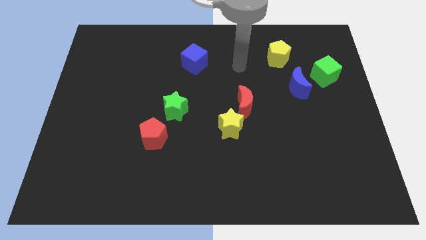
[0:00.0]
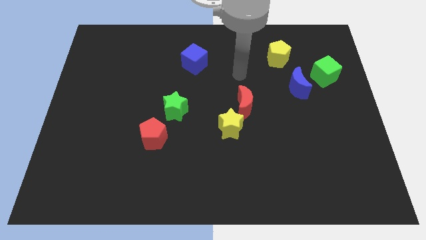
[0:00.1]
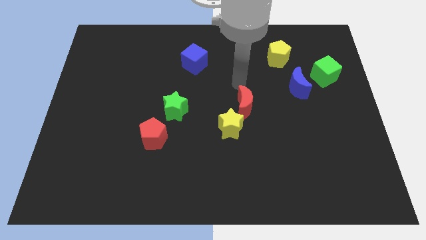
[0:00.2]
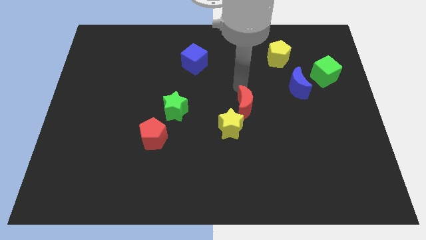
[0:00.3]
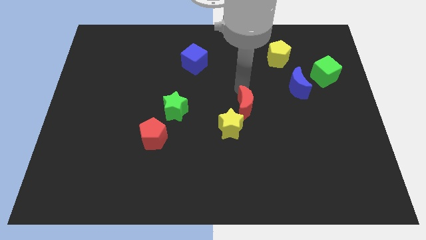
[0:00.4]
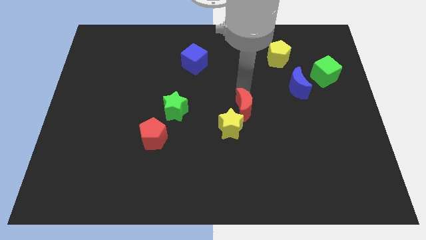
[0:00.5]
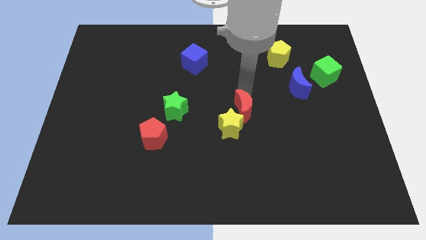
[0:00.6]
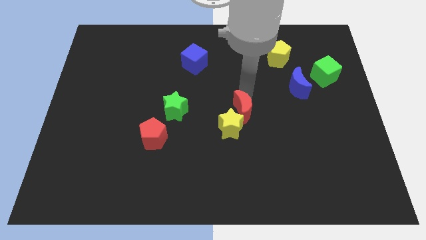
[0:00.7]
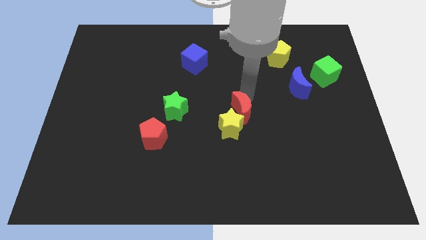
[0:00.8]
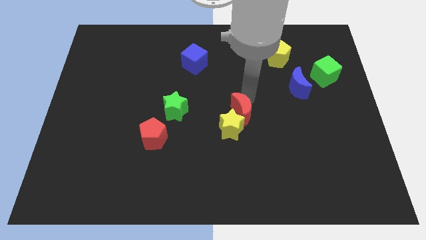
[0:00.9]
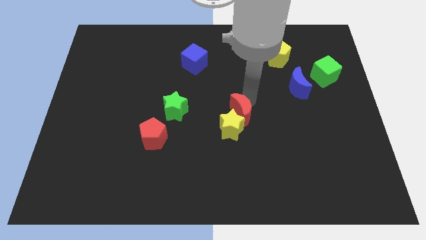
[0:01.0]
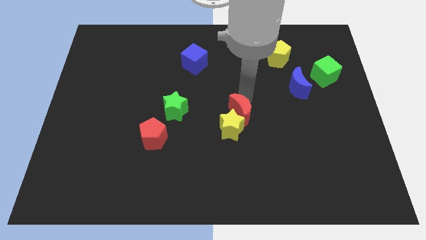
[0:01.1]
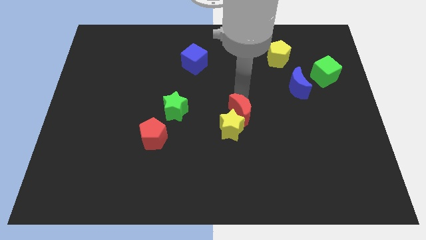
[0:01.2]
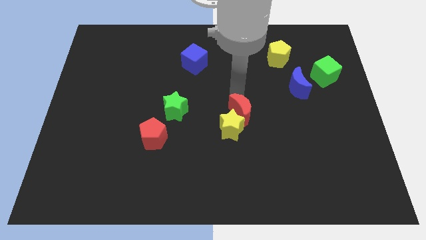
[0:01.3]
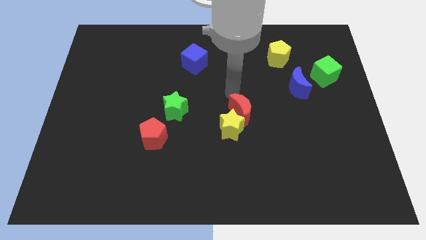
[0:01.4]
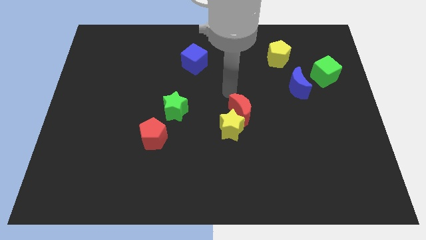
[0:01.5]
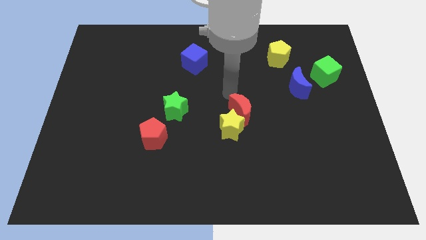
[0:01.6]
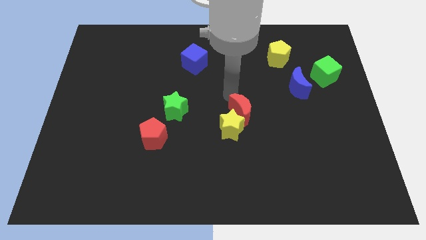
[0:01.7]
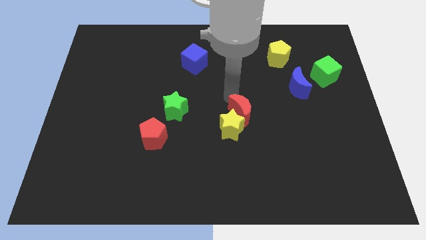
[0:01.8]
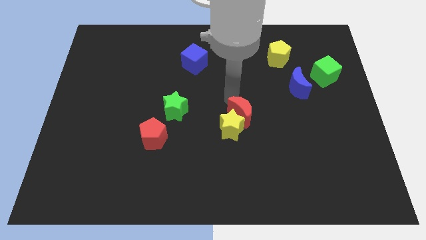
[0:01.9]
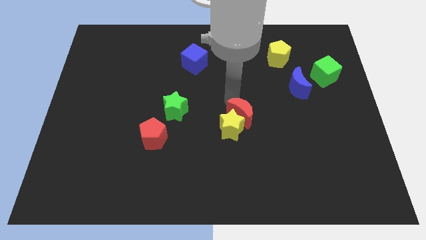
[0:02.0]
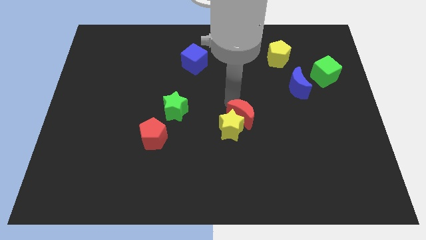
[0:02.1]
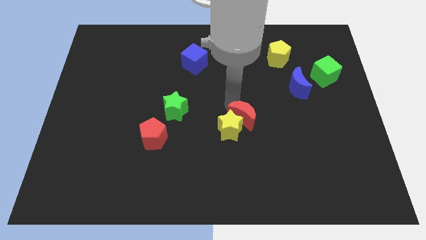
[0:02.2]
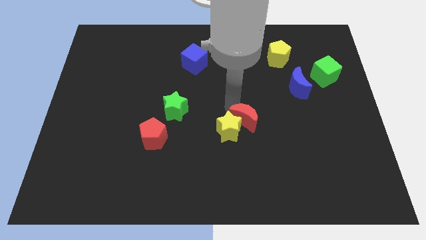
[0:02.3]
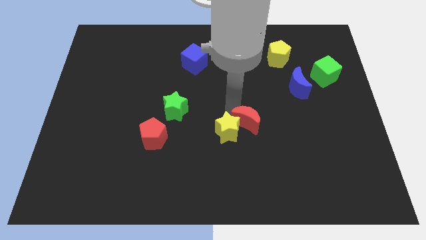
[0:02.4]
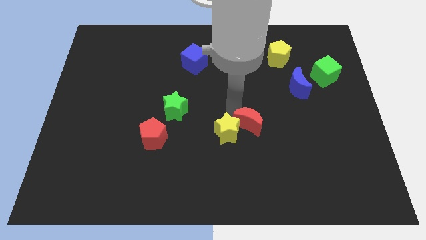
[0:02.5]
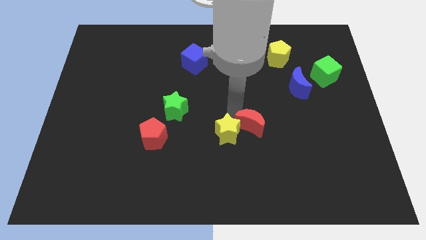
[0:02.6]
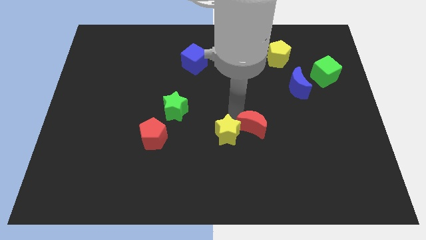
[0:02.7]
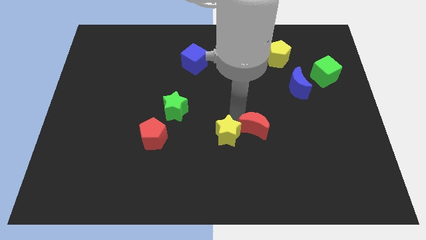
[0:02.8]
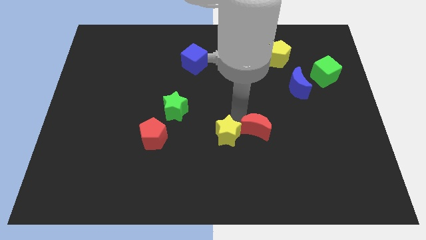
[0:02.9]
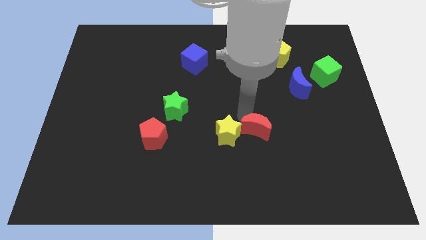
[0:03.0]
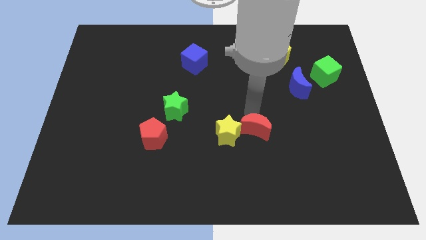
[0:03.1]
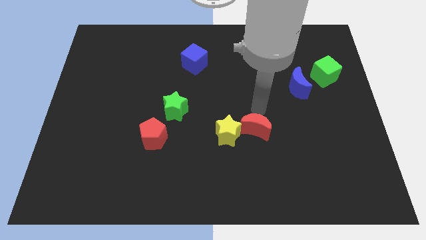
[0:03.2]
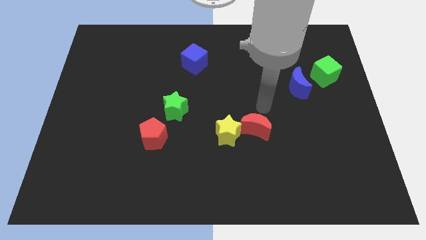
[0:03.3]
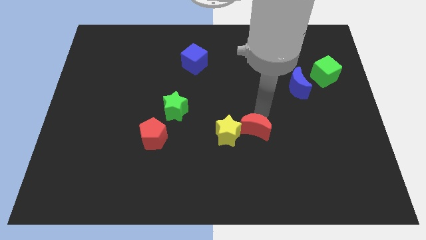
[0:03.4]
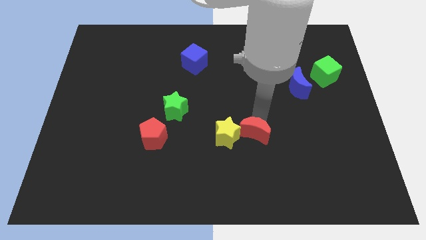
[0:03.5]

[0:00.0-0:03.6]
slightly slide the red moon downwards

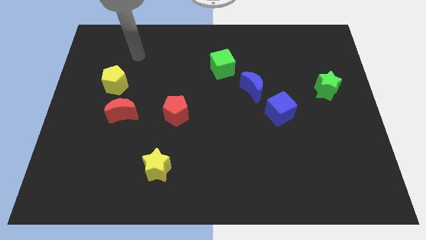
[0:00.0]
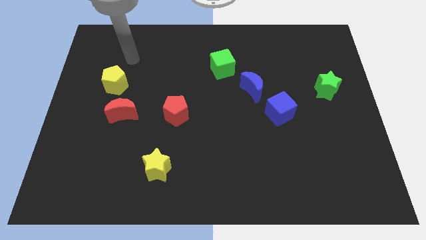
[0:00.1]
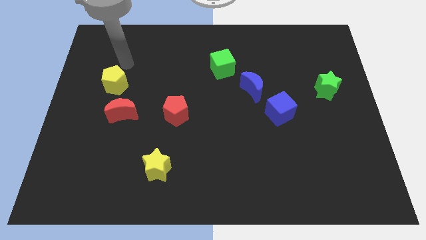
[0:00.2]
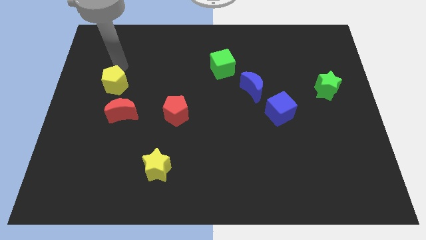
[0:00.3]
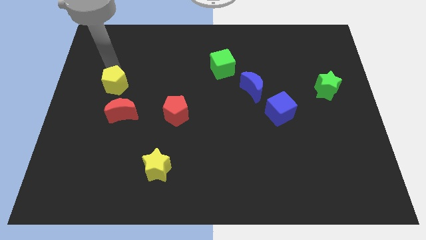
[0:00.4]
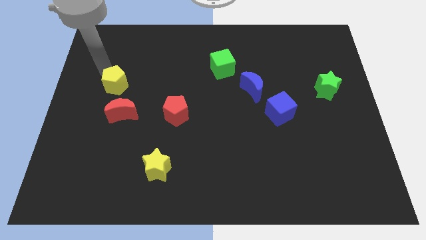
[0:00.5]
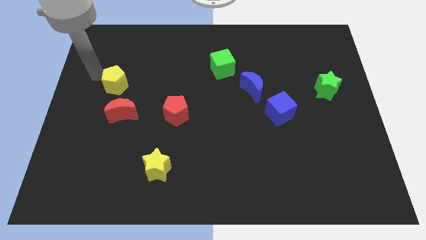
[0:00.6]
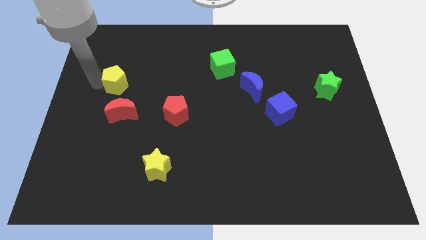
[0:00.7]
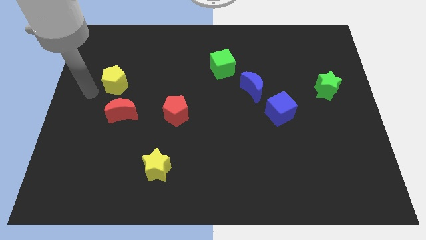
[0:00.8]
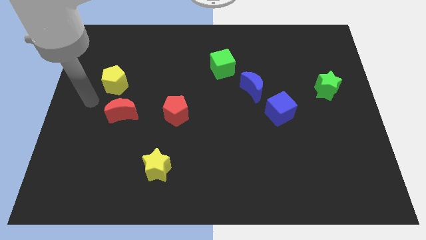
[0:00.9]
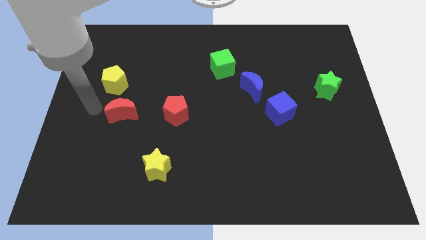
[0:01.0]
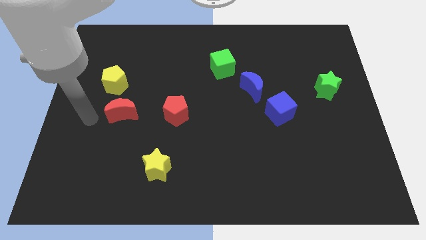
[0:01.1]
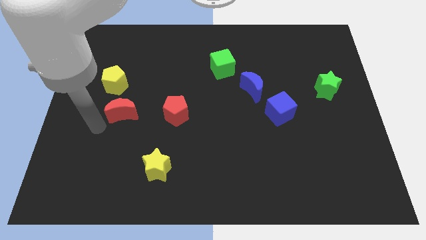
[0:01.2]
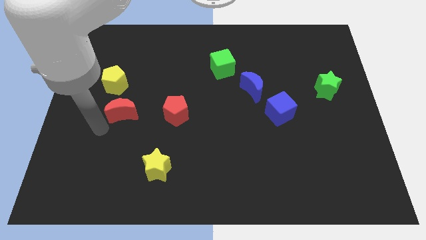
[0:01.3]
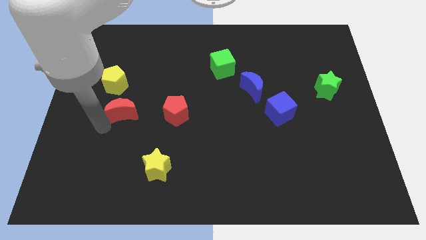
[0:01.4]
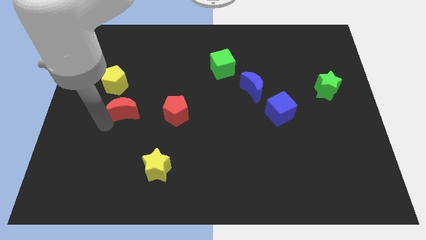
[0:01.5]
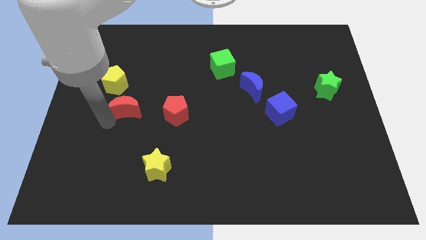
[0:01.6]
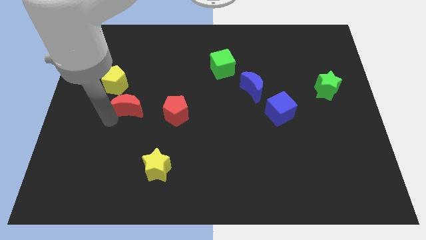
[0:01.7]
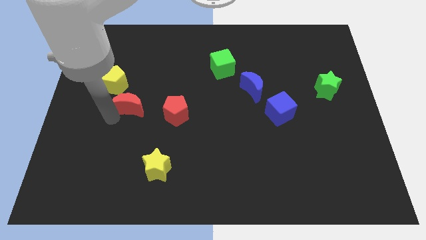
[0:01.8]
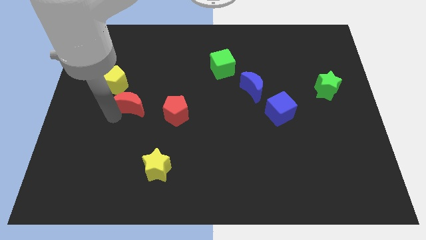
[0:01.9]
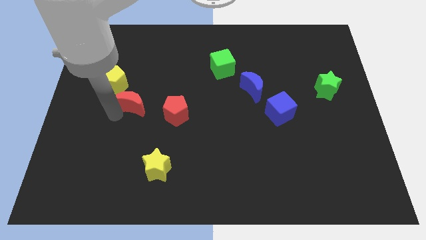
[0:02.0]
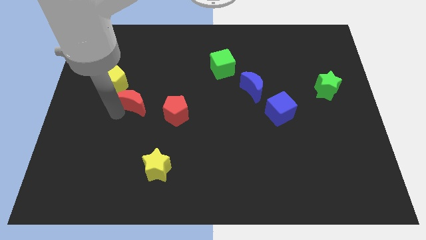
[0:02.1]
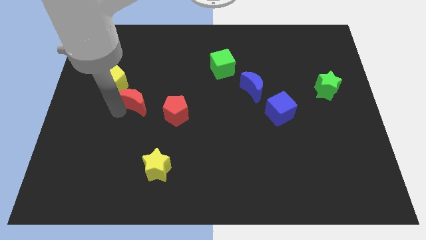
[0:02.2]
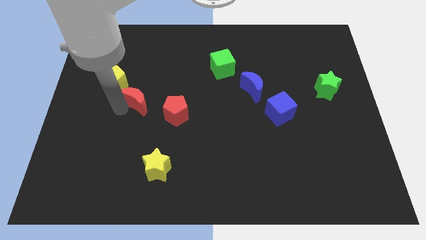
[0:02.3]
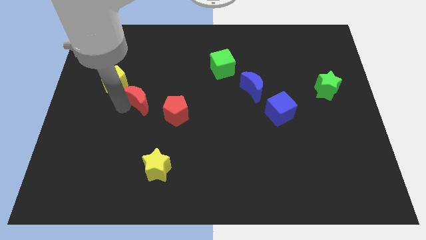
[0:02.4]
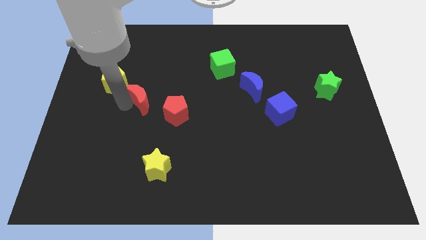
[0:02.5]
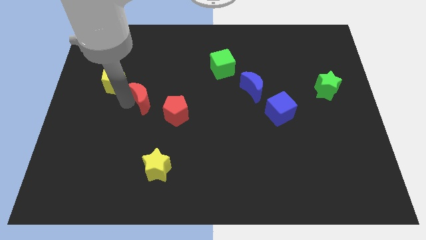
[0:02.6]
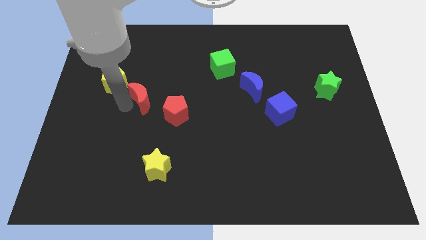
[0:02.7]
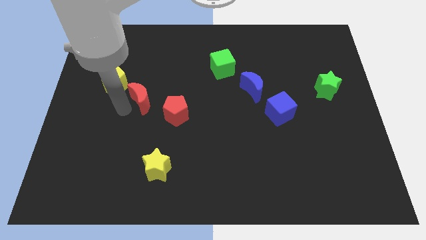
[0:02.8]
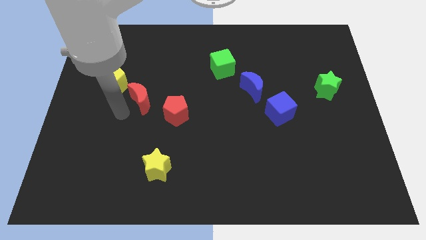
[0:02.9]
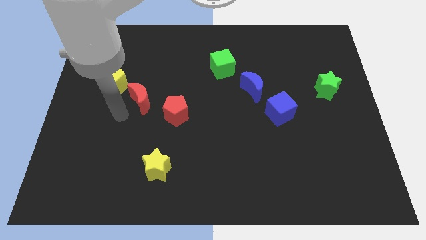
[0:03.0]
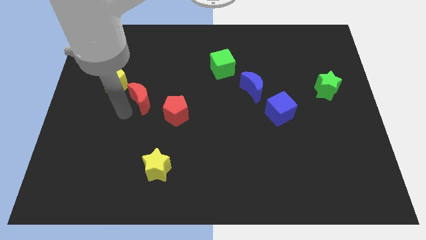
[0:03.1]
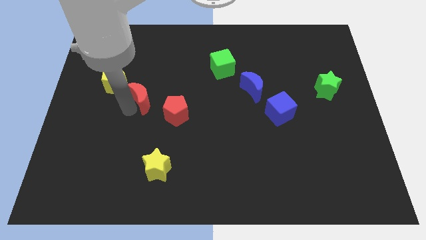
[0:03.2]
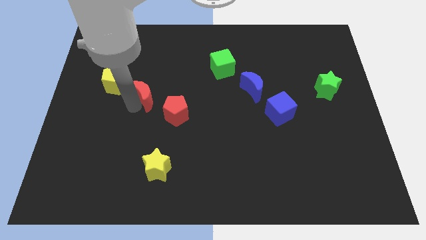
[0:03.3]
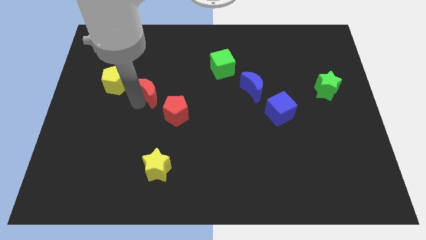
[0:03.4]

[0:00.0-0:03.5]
slightly push the red moon diagonally up and to the right

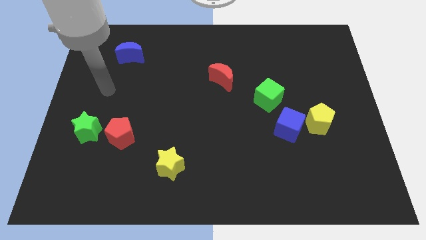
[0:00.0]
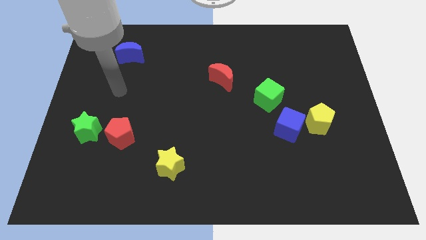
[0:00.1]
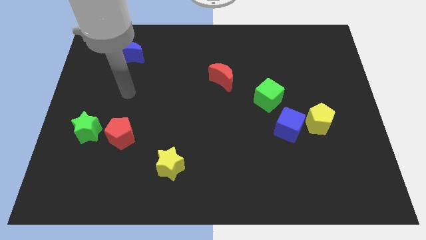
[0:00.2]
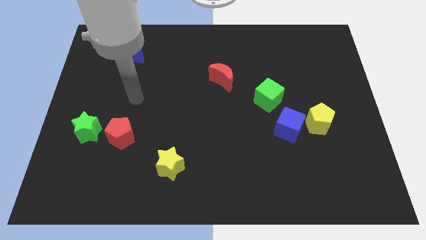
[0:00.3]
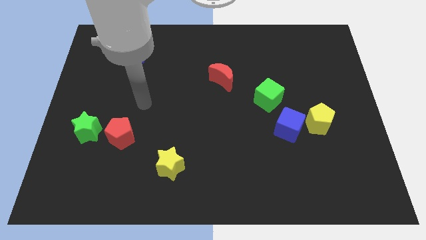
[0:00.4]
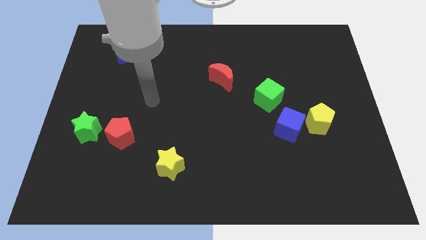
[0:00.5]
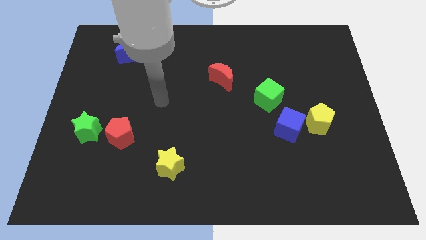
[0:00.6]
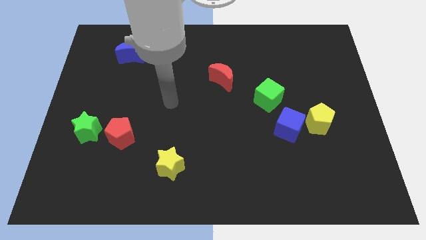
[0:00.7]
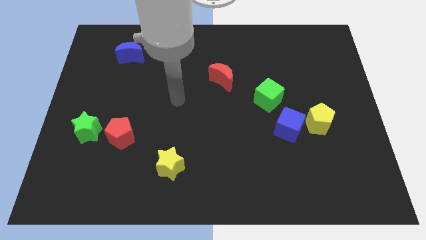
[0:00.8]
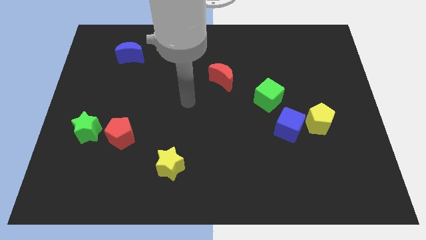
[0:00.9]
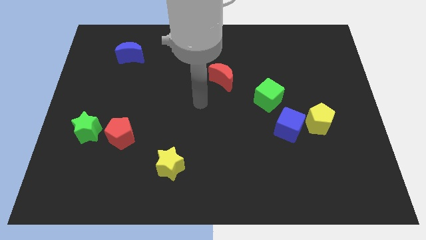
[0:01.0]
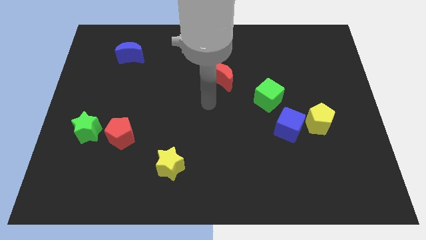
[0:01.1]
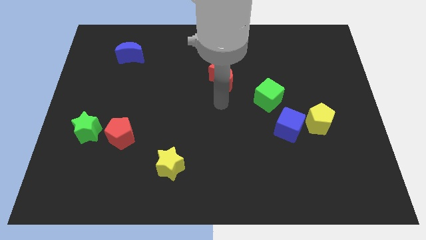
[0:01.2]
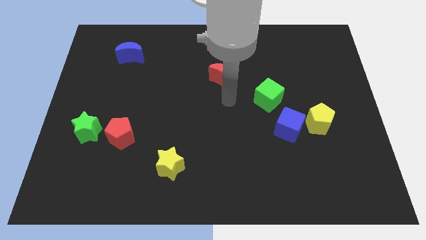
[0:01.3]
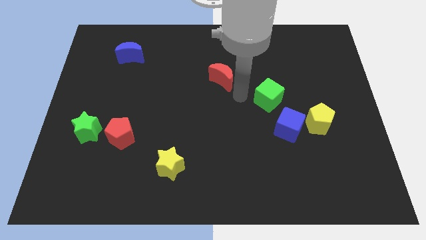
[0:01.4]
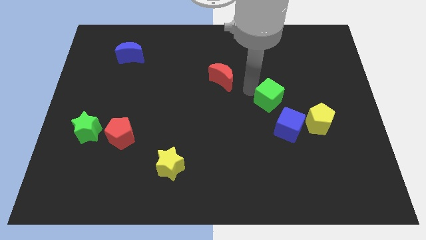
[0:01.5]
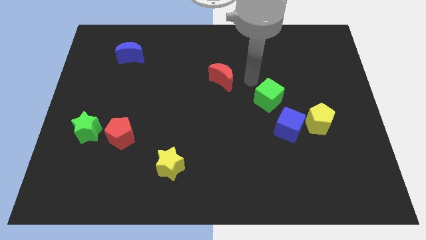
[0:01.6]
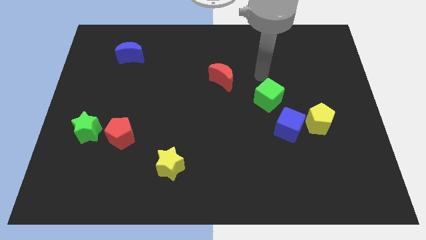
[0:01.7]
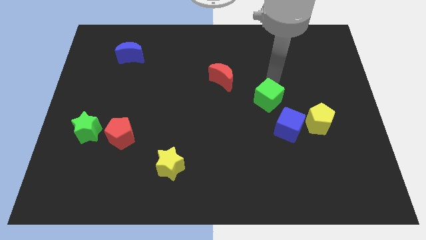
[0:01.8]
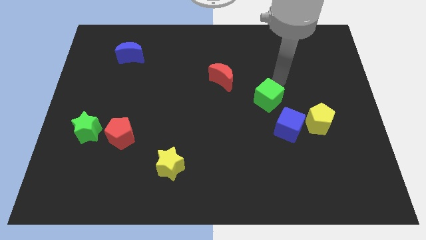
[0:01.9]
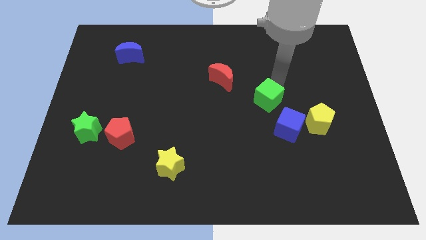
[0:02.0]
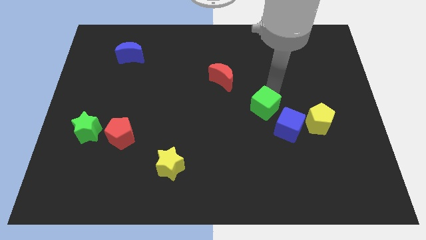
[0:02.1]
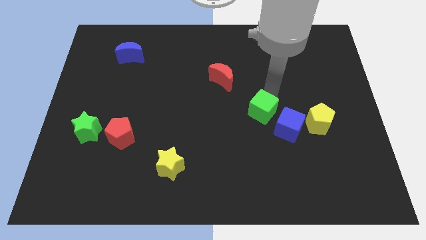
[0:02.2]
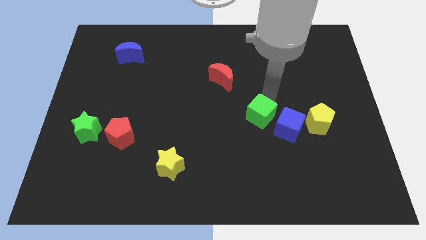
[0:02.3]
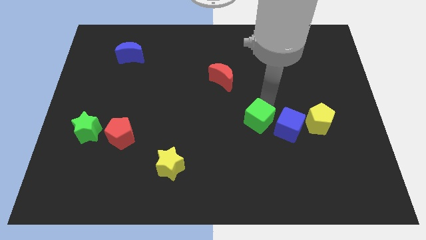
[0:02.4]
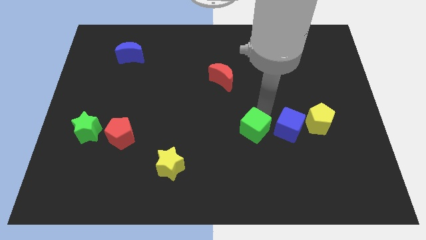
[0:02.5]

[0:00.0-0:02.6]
slide the green cube down and to the left a bit
